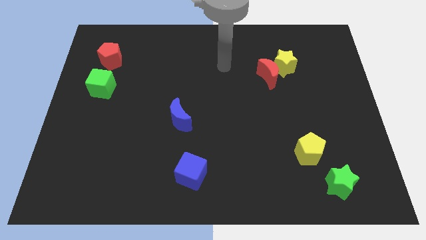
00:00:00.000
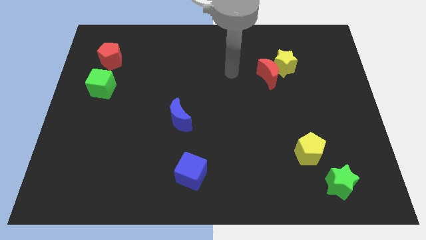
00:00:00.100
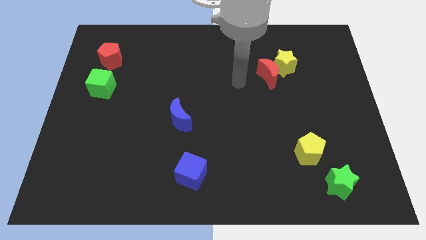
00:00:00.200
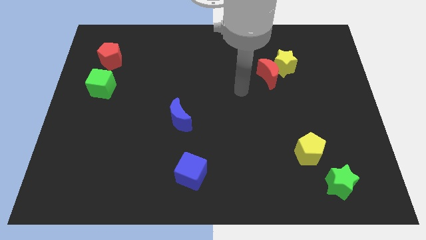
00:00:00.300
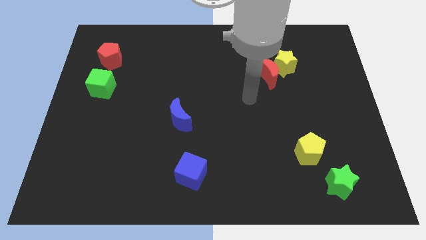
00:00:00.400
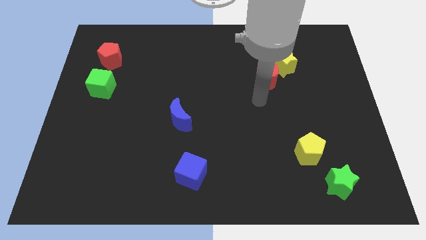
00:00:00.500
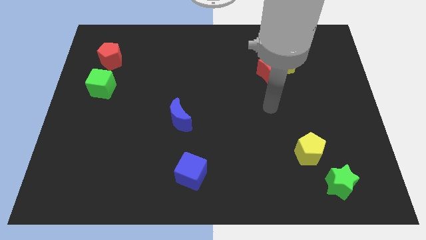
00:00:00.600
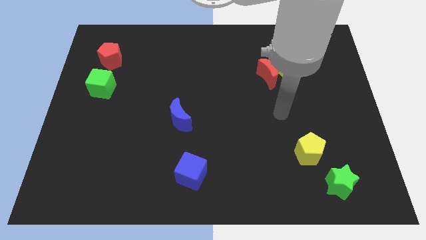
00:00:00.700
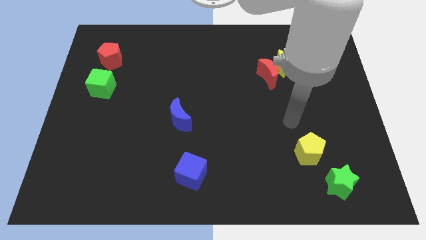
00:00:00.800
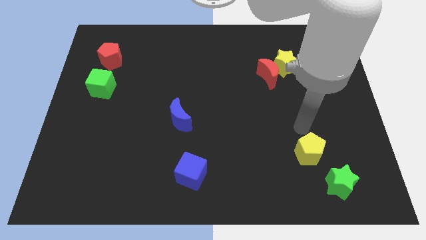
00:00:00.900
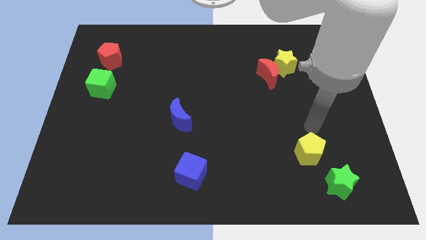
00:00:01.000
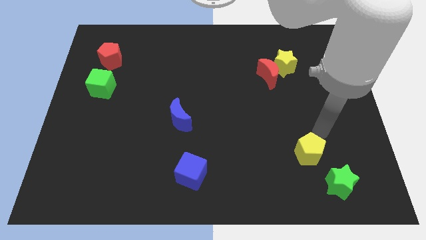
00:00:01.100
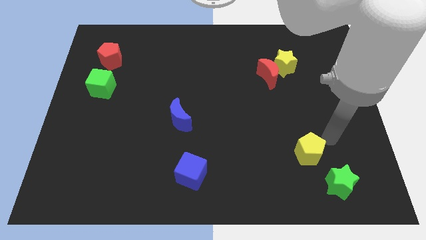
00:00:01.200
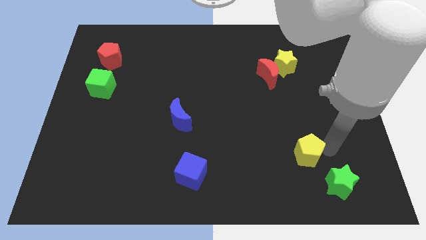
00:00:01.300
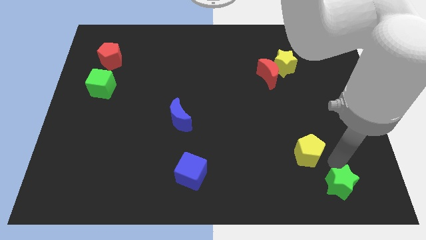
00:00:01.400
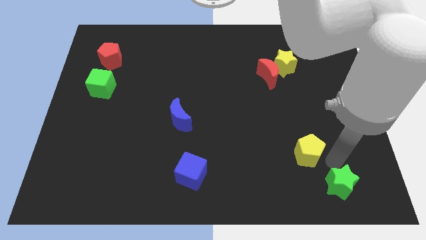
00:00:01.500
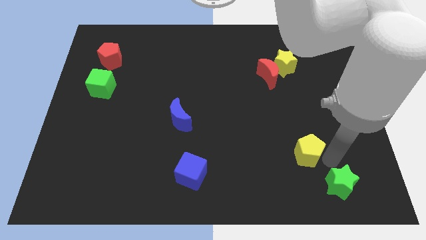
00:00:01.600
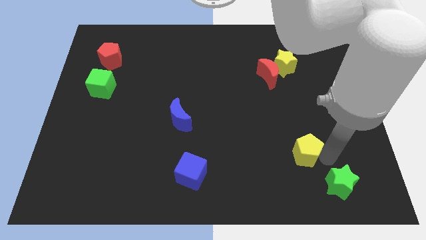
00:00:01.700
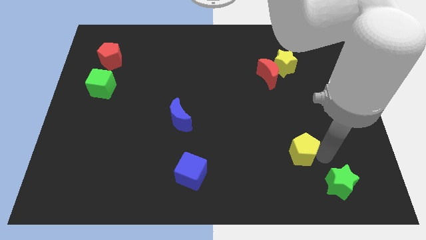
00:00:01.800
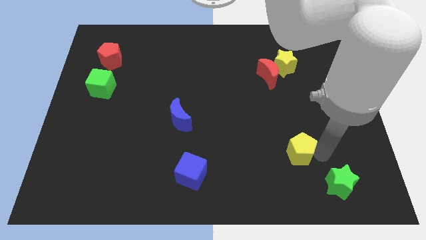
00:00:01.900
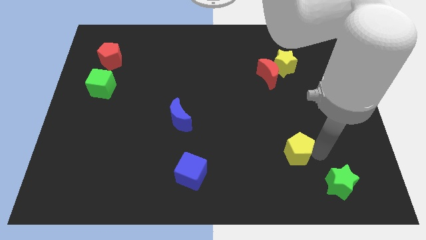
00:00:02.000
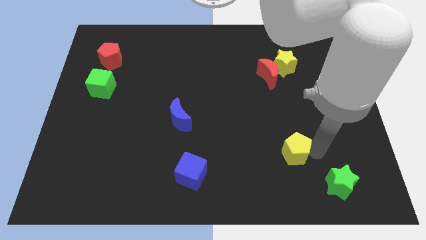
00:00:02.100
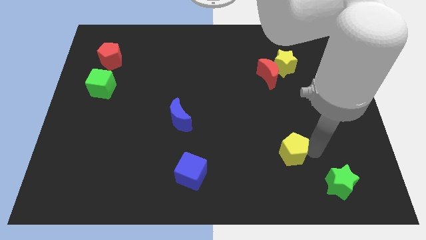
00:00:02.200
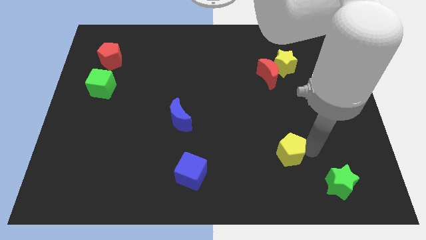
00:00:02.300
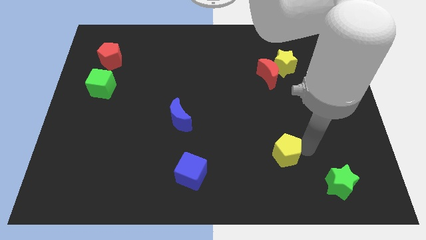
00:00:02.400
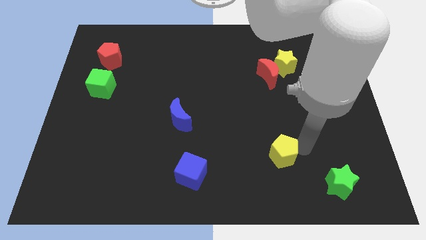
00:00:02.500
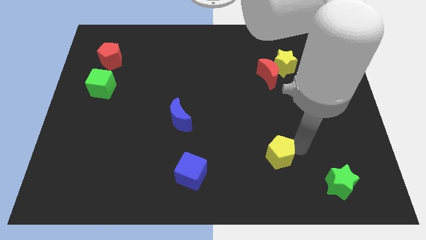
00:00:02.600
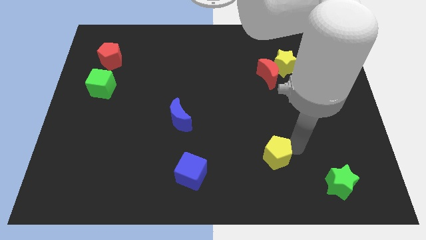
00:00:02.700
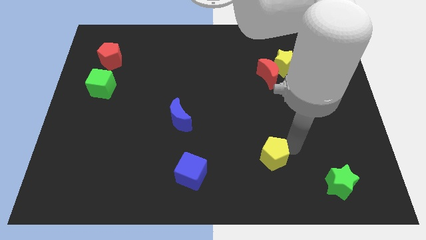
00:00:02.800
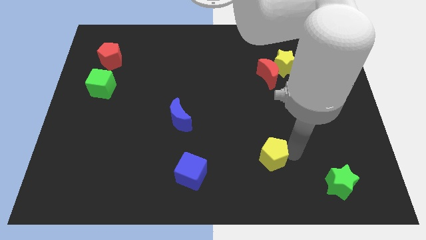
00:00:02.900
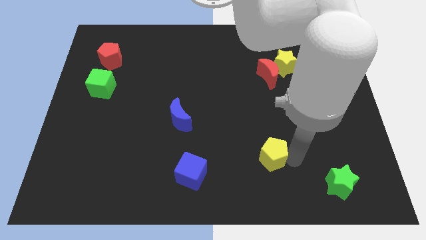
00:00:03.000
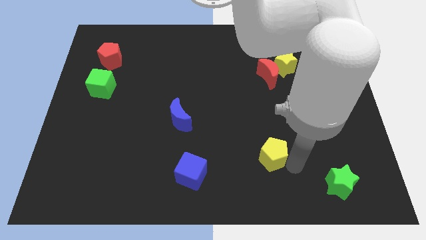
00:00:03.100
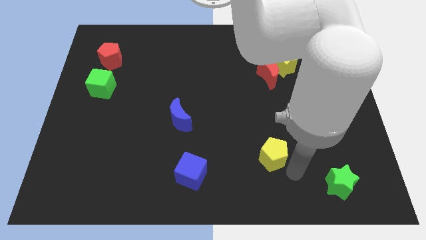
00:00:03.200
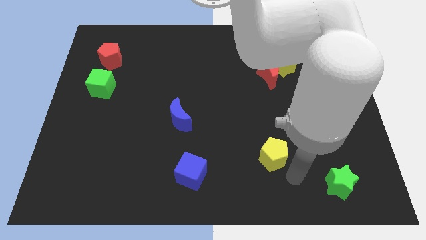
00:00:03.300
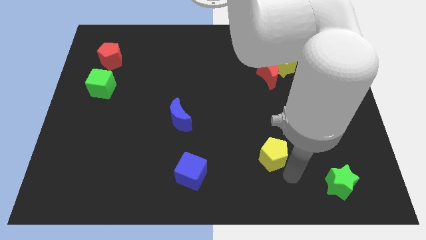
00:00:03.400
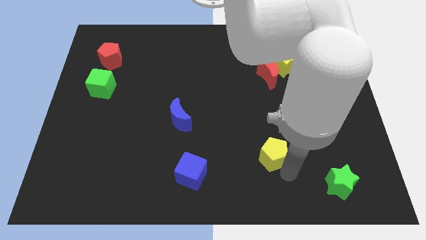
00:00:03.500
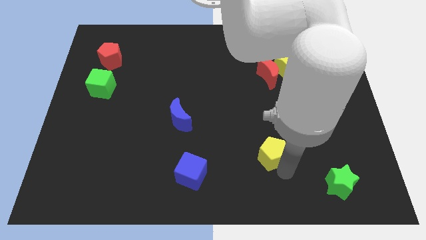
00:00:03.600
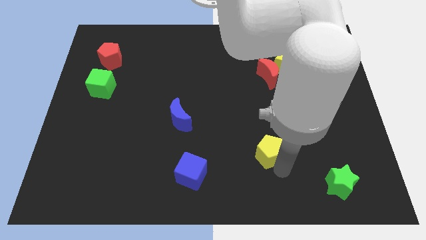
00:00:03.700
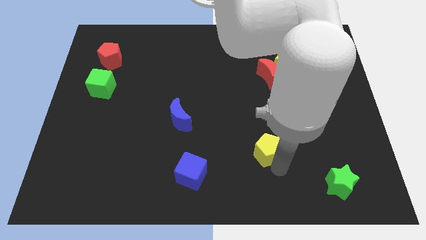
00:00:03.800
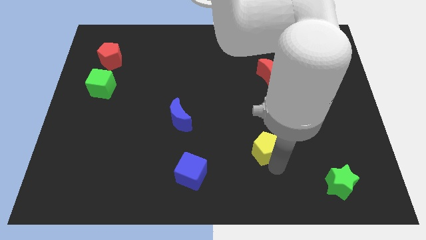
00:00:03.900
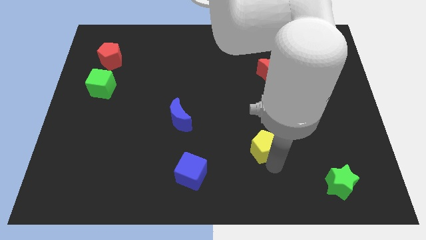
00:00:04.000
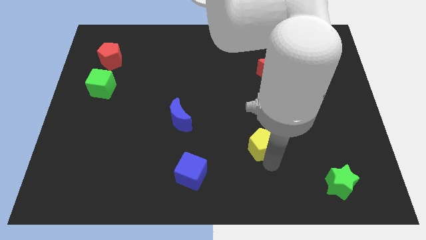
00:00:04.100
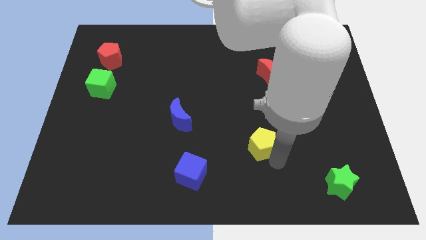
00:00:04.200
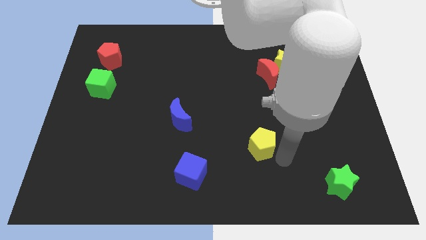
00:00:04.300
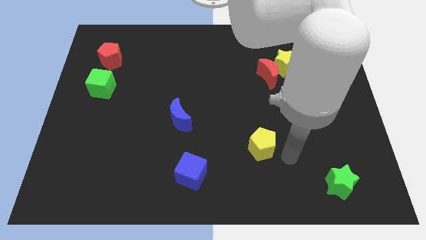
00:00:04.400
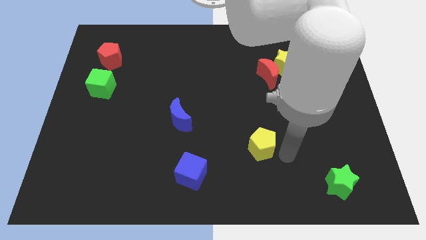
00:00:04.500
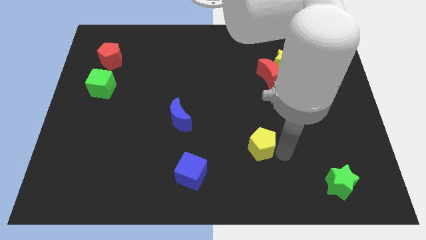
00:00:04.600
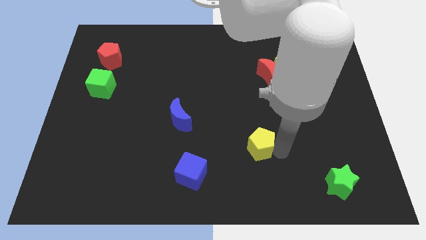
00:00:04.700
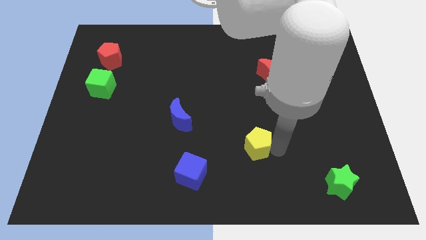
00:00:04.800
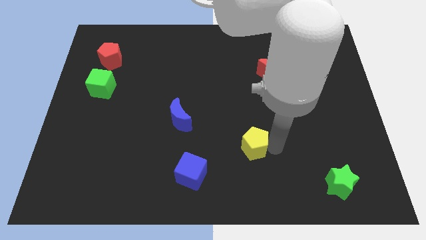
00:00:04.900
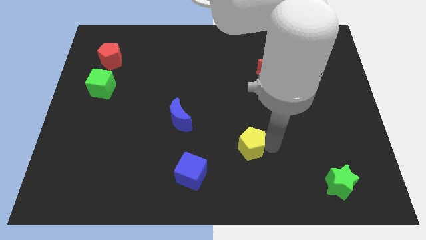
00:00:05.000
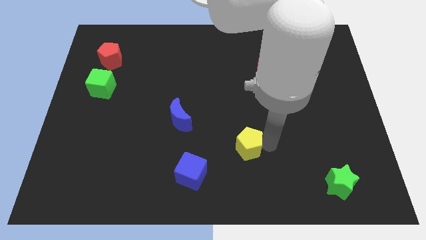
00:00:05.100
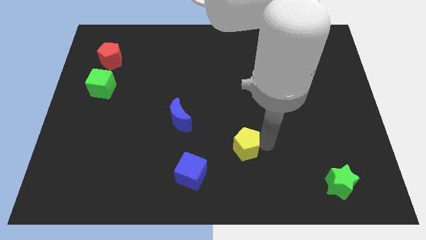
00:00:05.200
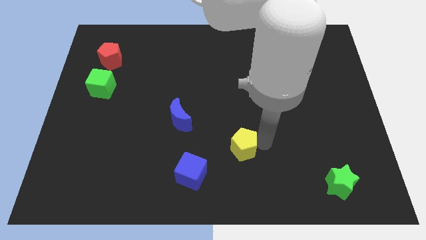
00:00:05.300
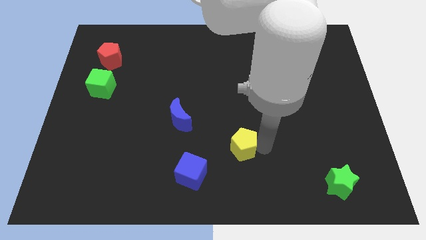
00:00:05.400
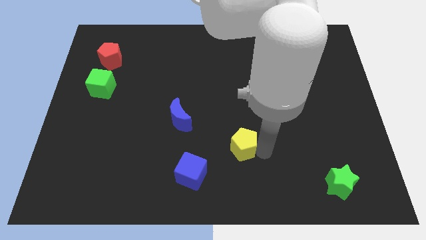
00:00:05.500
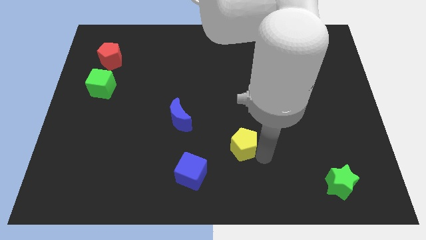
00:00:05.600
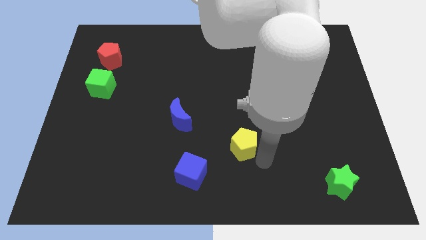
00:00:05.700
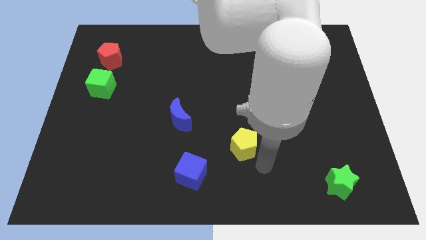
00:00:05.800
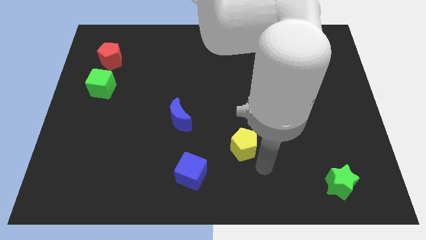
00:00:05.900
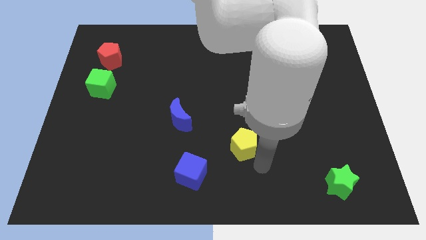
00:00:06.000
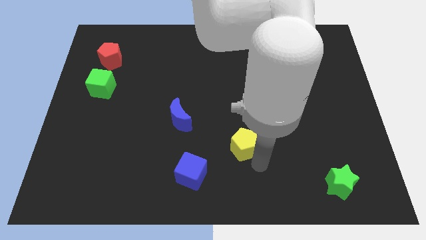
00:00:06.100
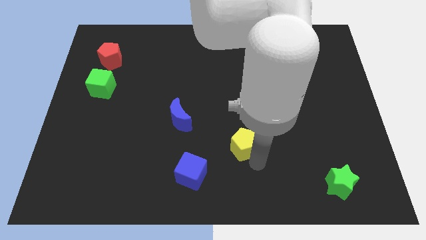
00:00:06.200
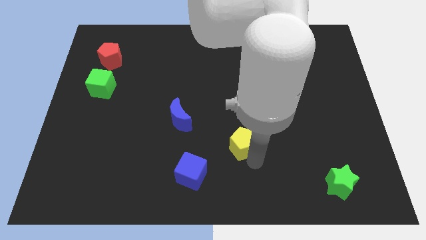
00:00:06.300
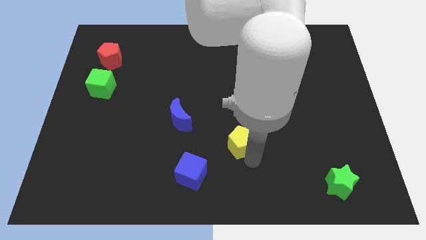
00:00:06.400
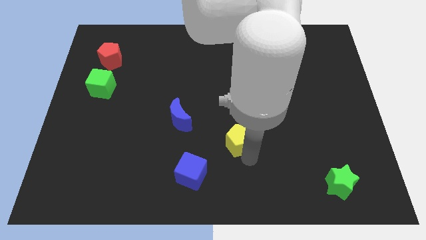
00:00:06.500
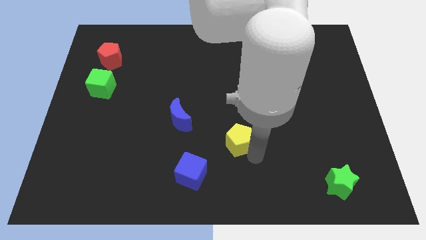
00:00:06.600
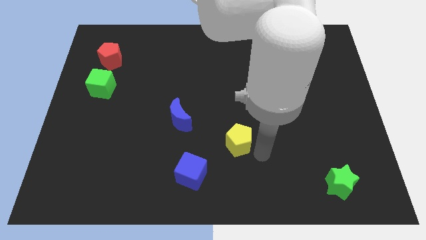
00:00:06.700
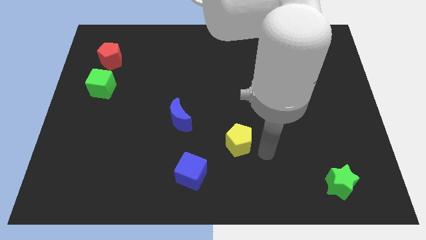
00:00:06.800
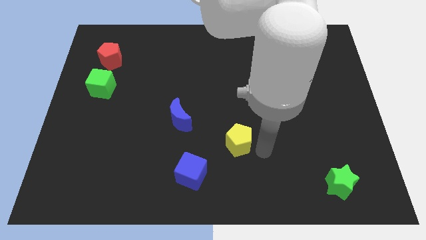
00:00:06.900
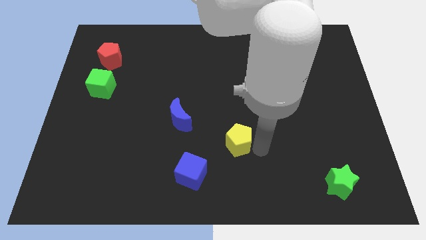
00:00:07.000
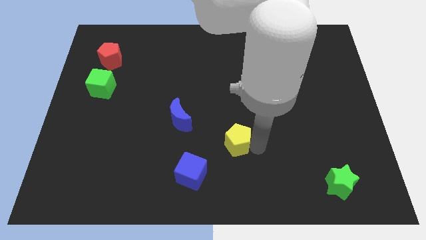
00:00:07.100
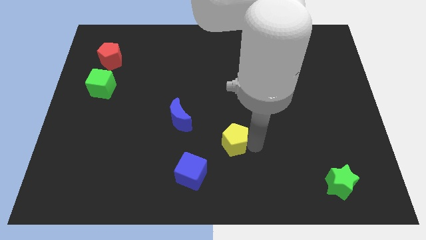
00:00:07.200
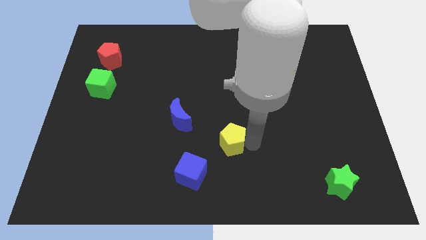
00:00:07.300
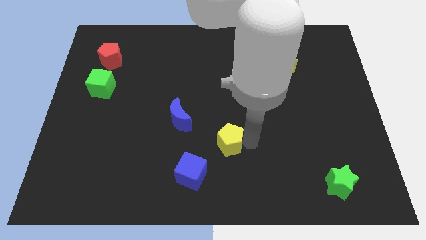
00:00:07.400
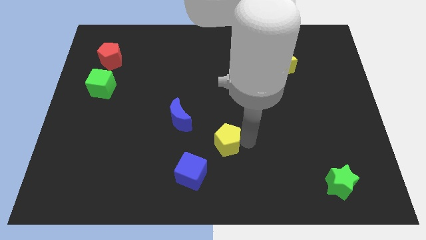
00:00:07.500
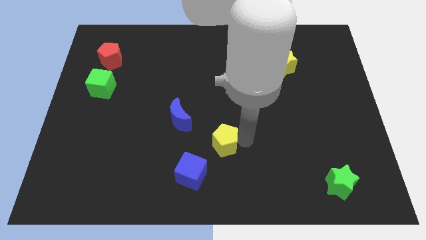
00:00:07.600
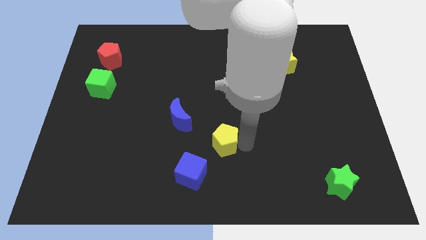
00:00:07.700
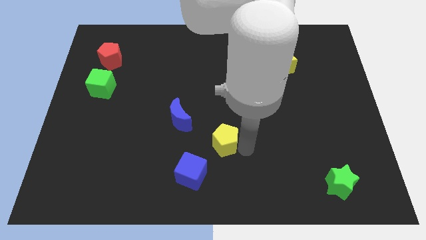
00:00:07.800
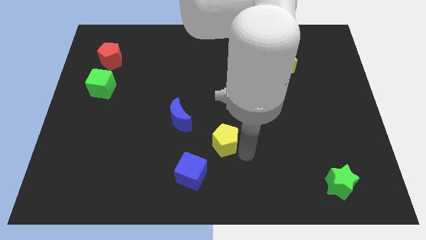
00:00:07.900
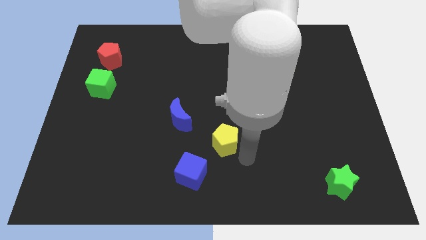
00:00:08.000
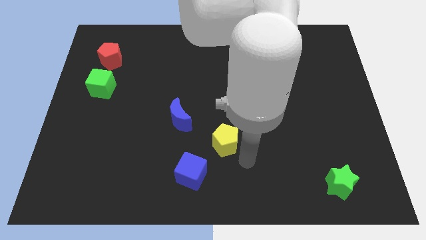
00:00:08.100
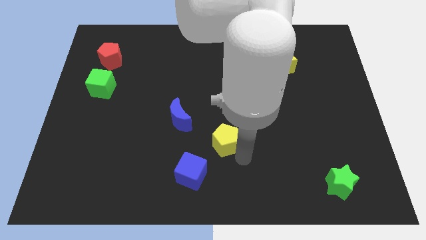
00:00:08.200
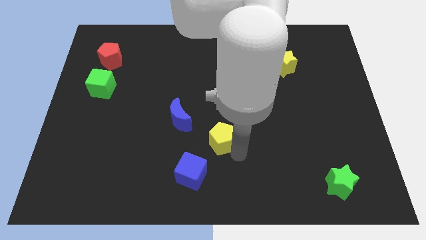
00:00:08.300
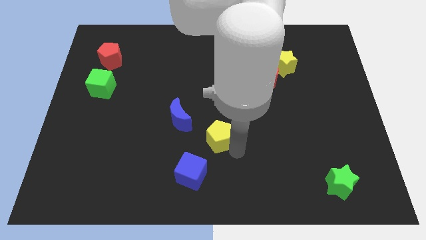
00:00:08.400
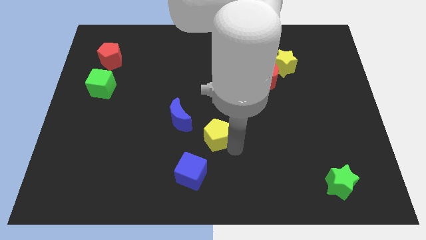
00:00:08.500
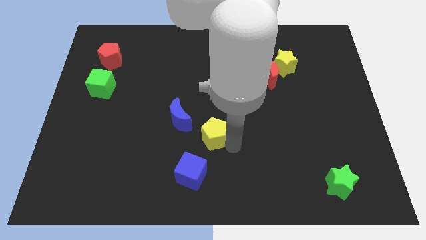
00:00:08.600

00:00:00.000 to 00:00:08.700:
put the yellow pentagon to the top side of the blue cube
